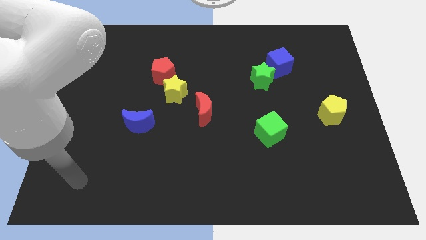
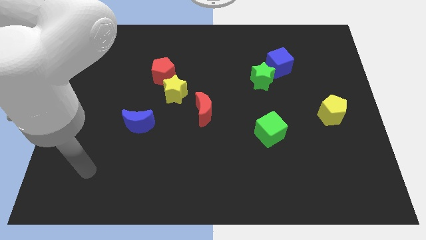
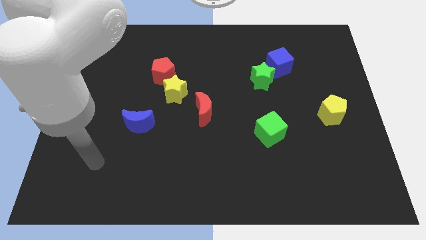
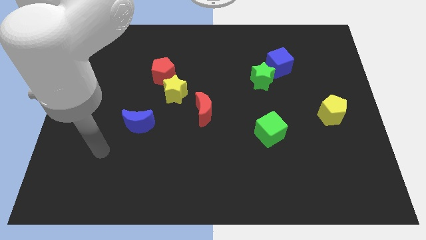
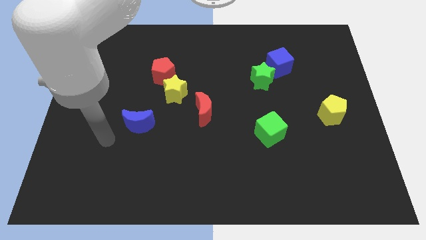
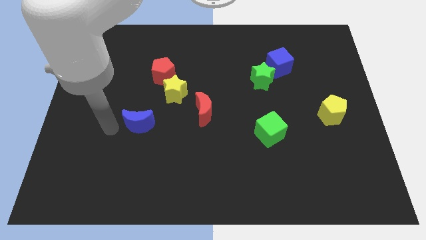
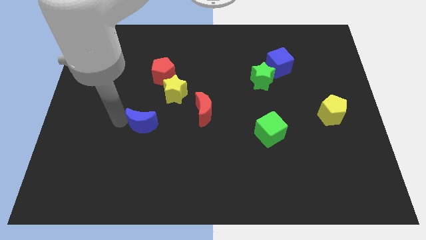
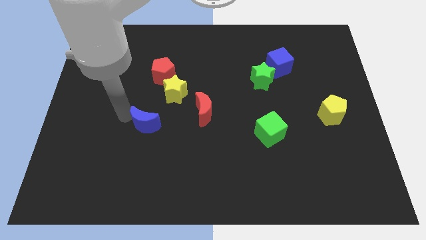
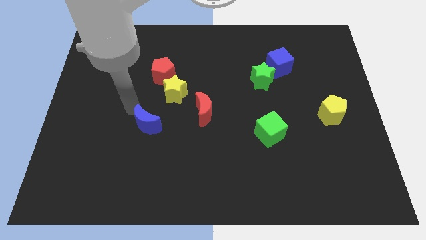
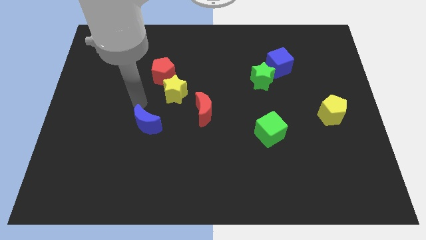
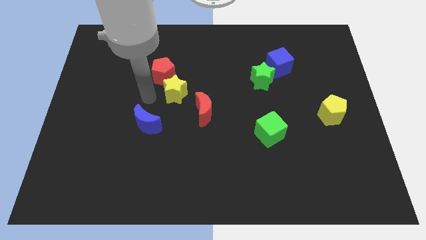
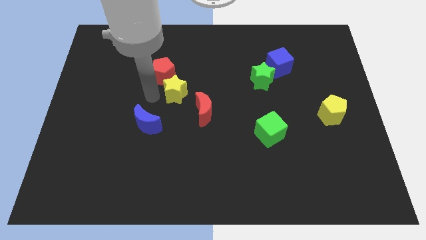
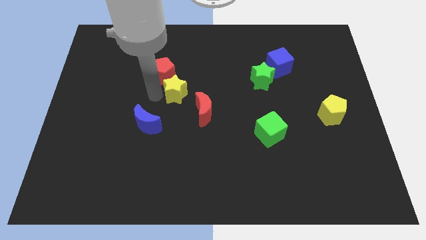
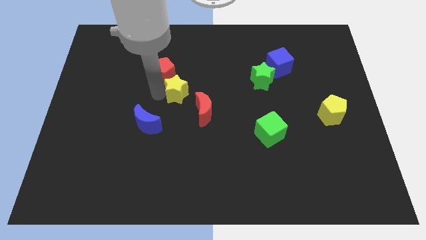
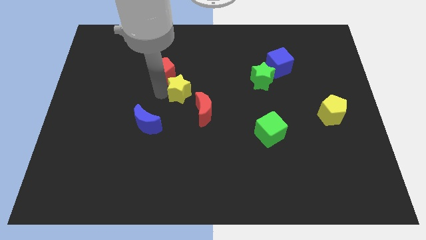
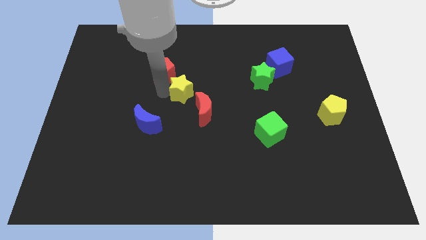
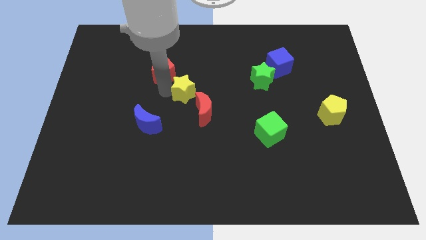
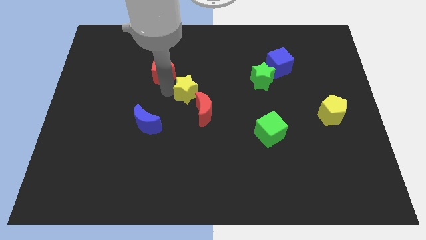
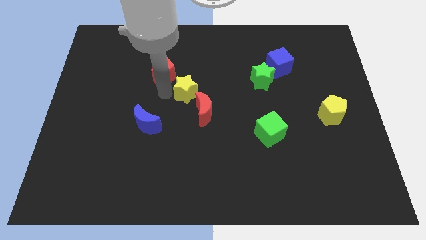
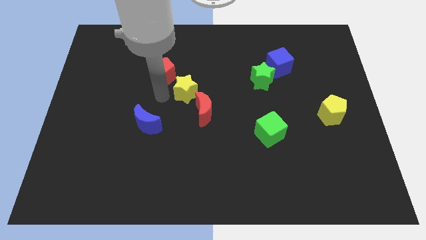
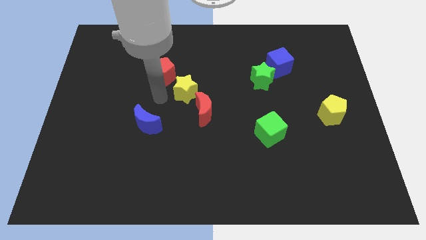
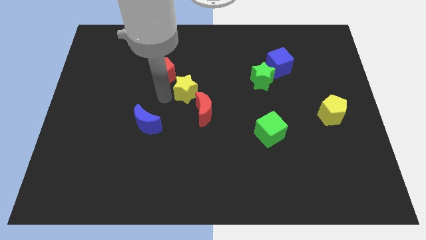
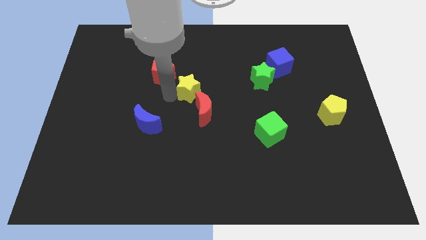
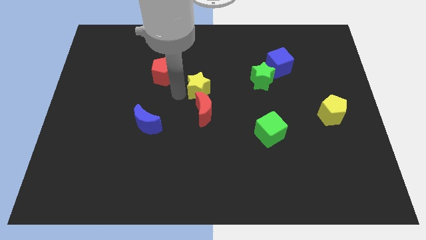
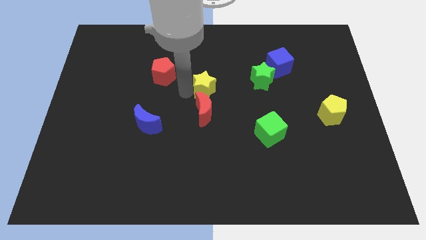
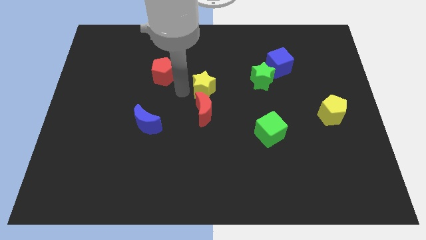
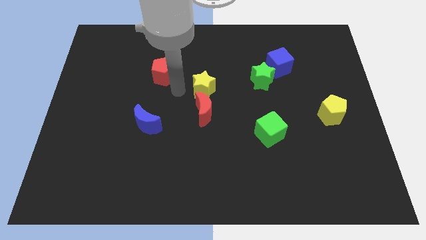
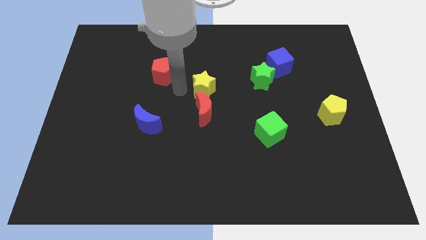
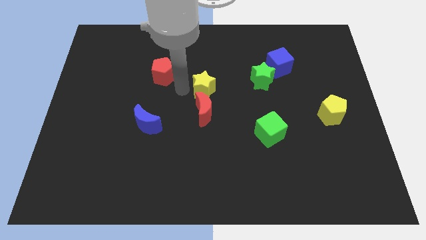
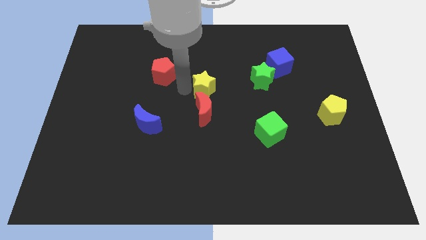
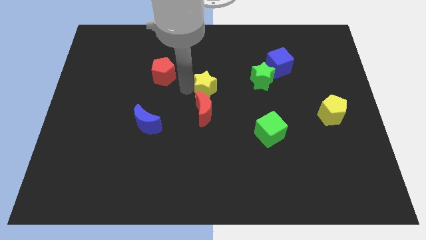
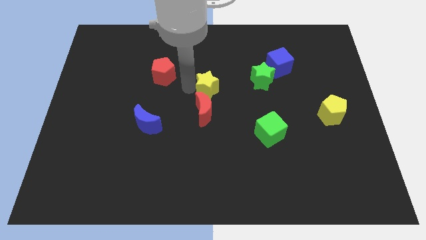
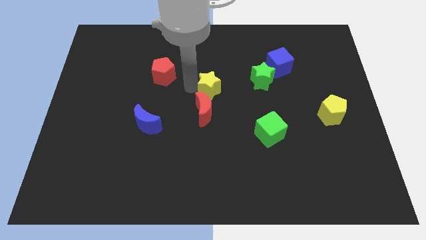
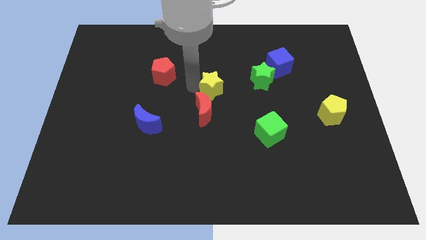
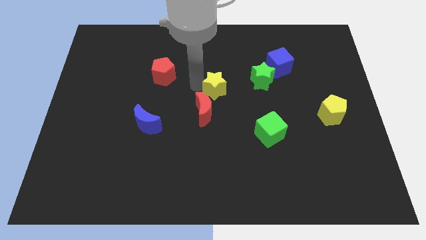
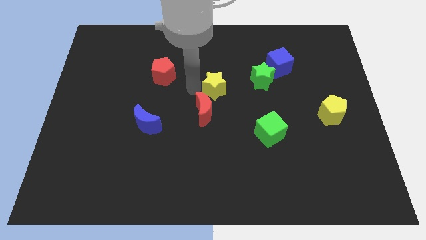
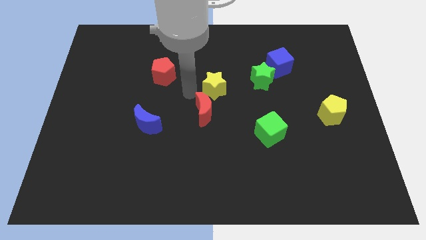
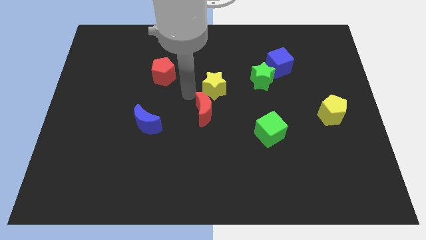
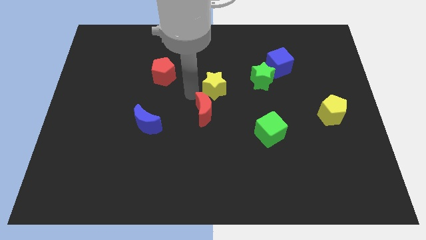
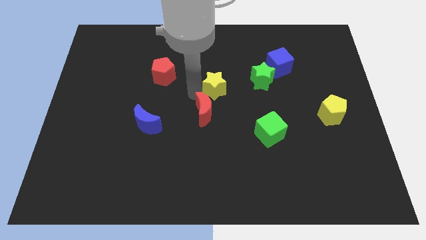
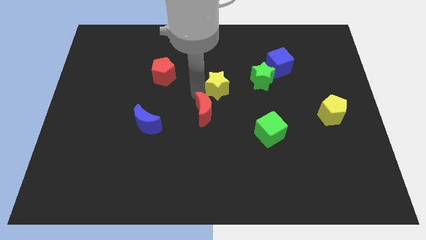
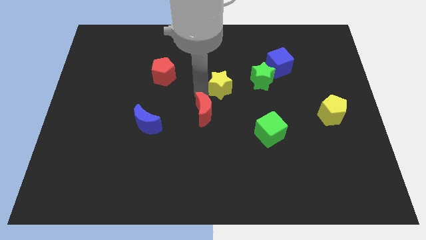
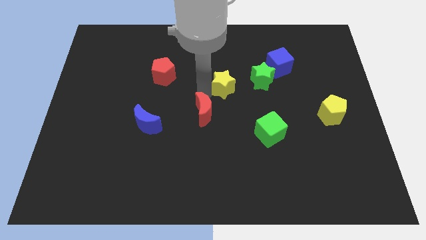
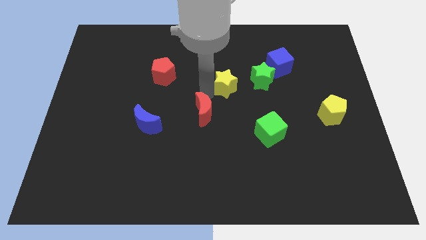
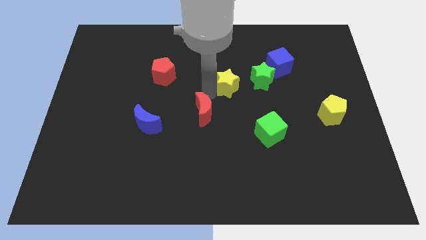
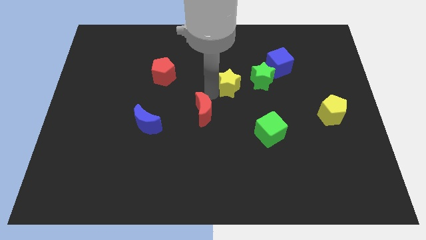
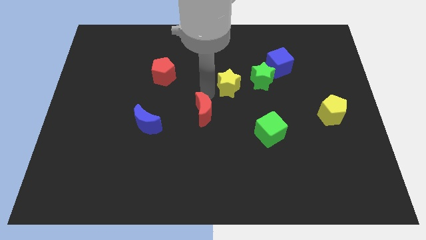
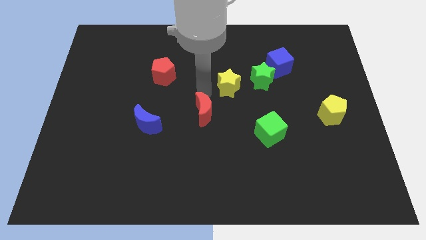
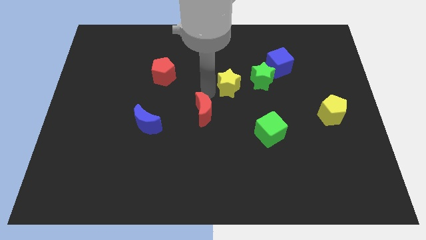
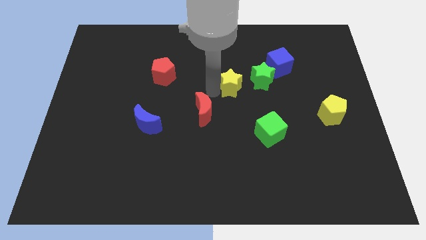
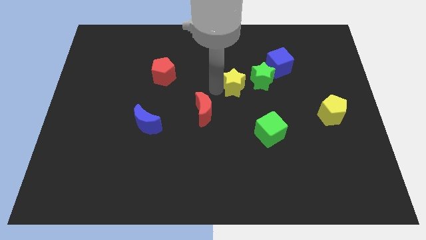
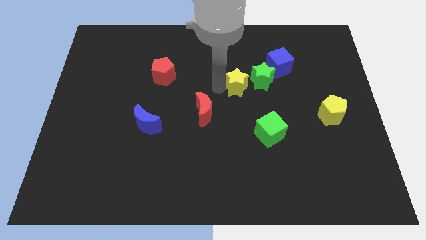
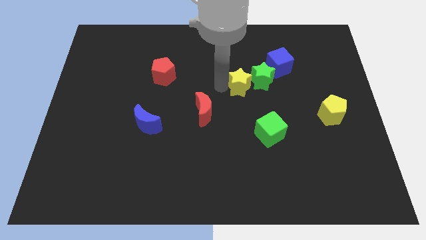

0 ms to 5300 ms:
move the yellow star close to the green star

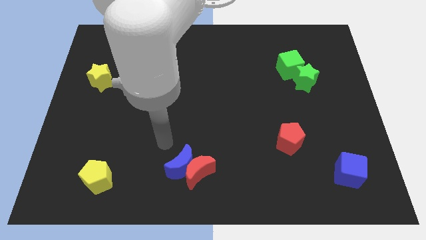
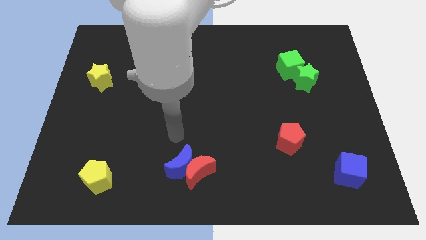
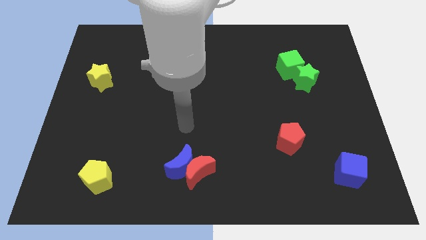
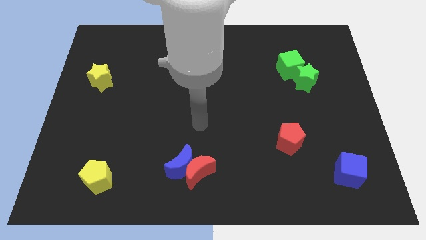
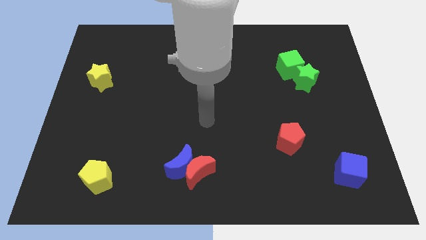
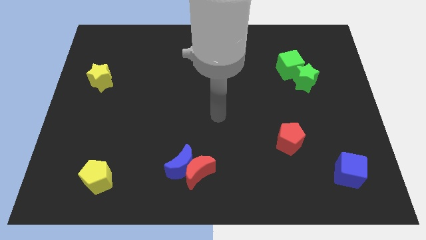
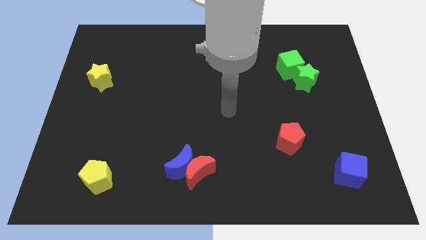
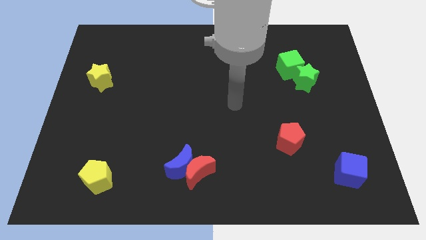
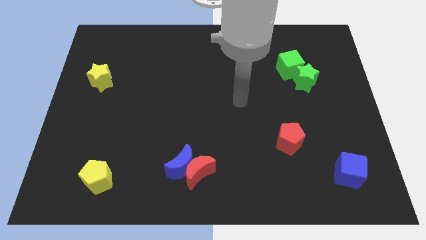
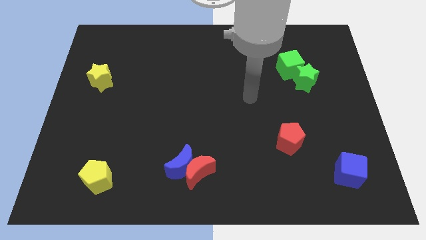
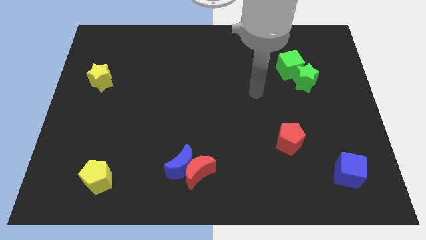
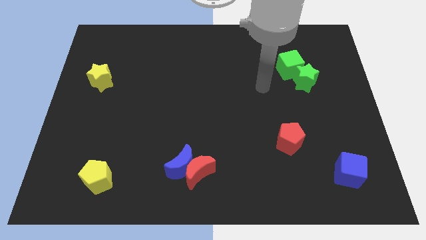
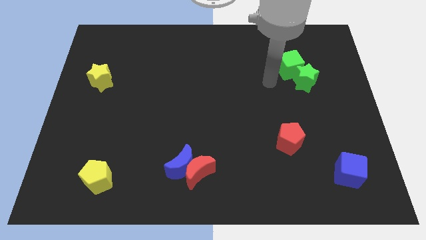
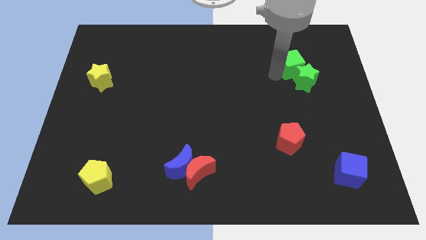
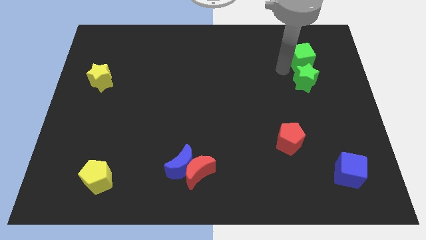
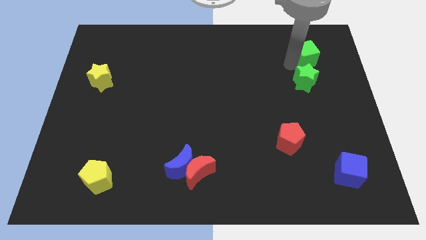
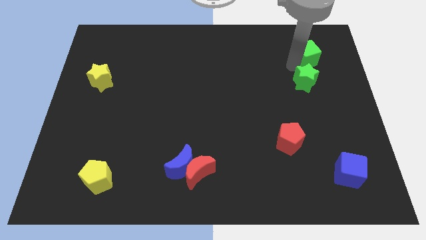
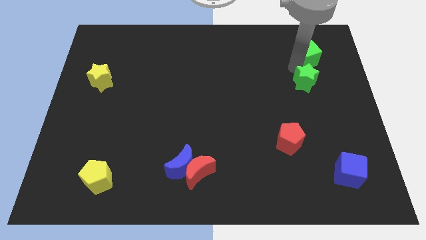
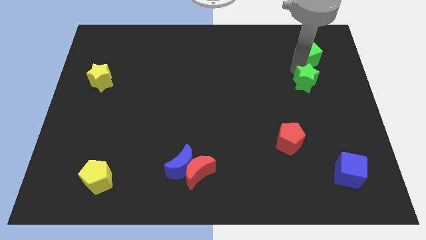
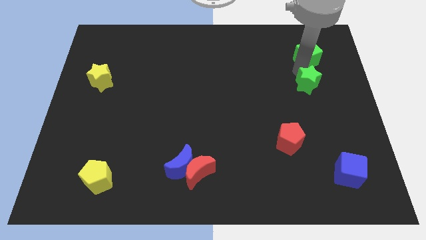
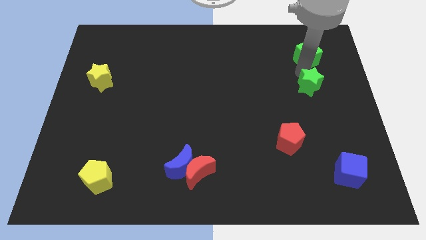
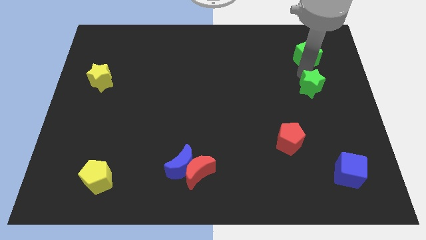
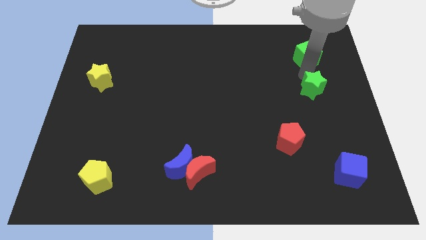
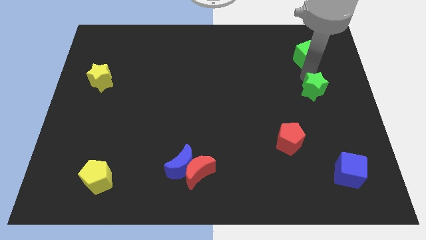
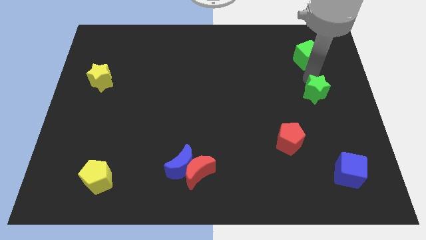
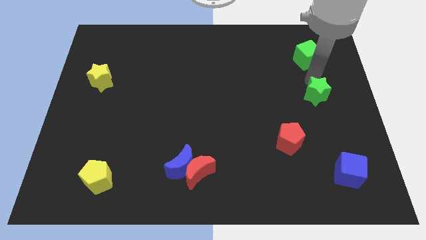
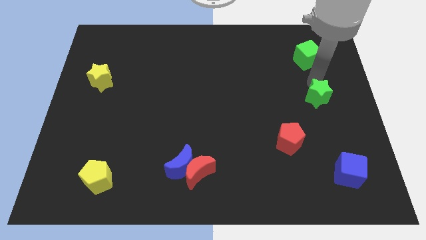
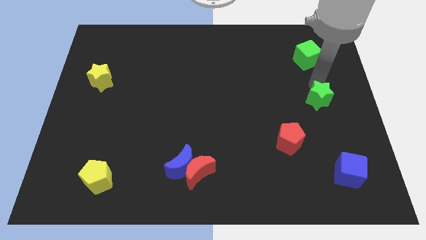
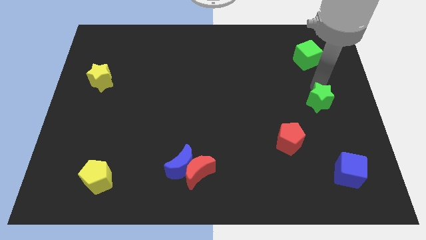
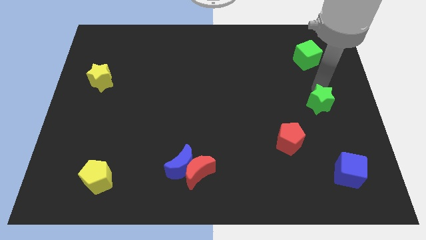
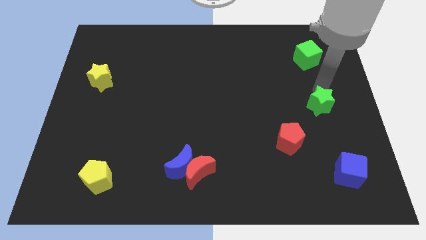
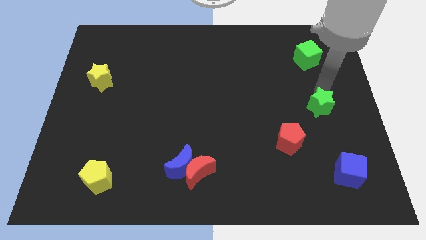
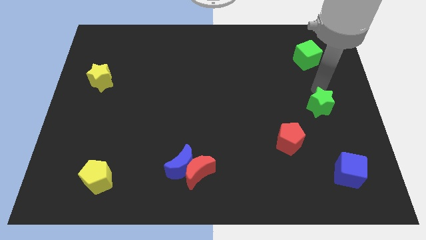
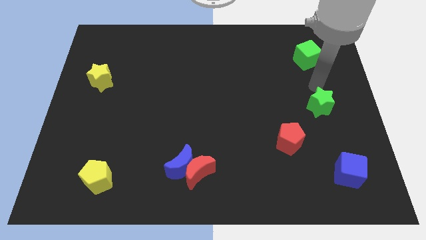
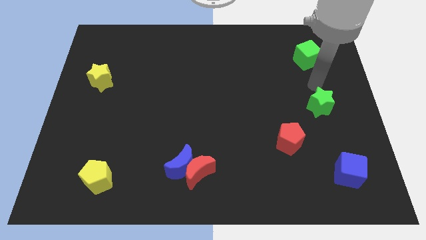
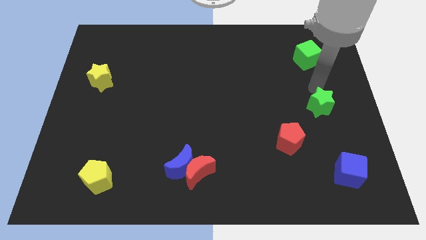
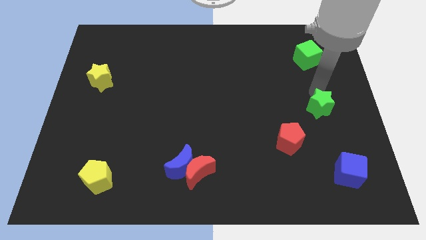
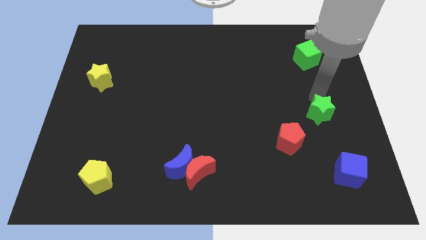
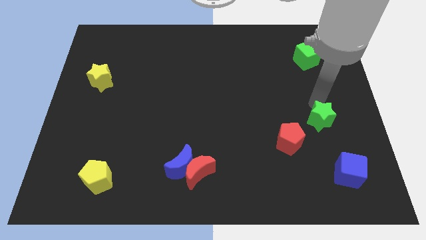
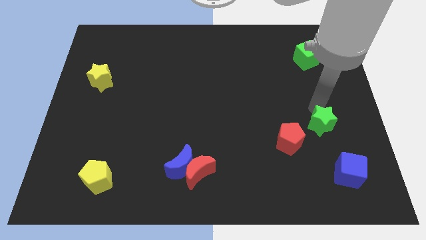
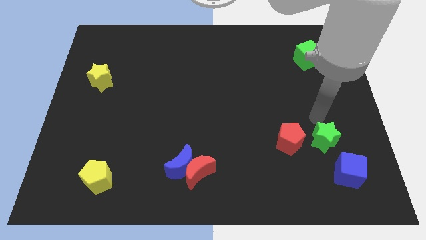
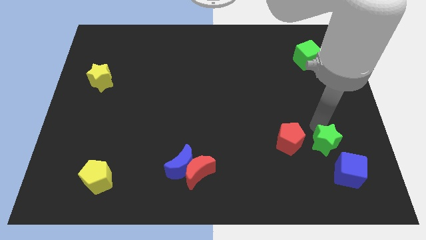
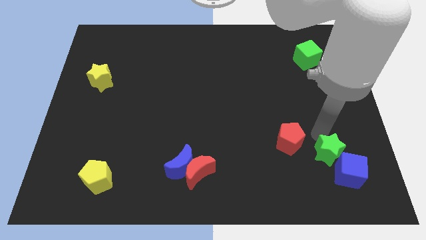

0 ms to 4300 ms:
slide the green star next to the blue cube
